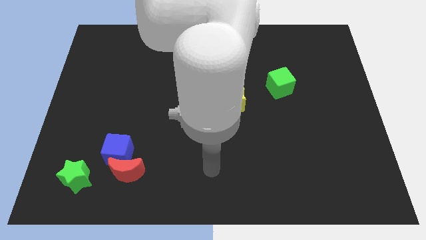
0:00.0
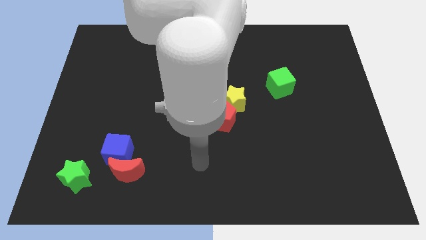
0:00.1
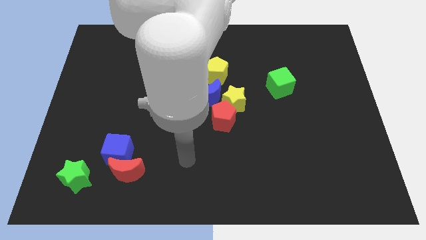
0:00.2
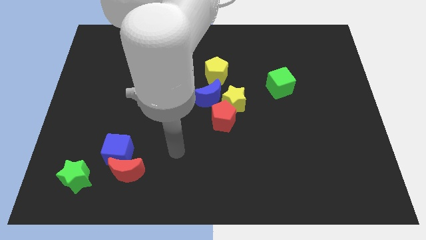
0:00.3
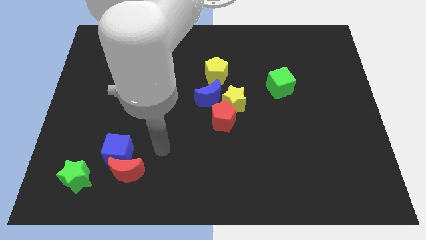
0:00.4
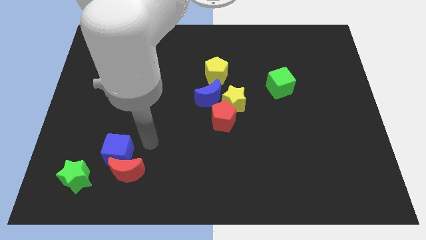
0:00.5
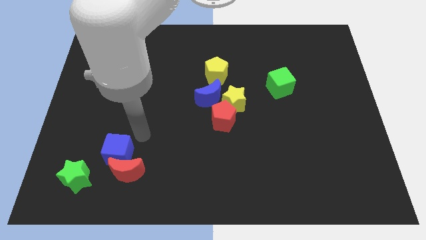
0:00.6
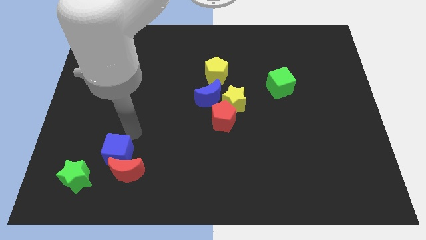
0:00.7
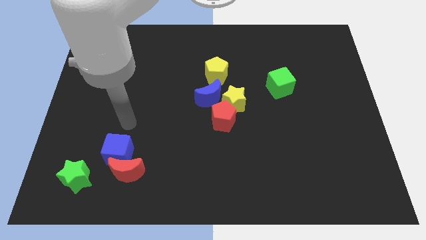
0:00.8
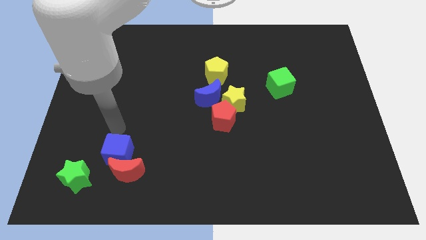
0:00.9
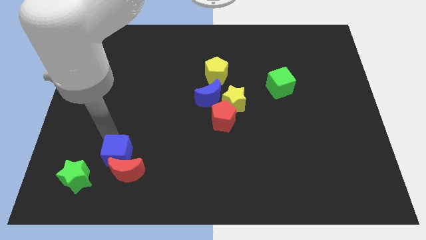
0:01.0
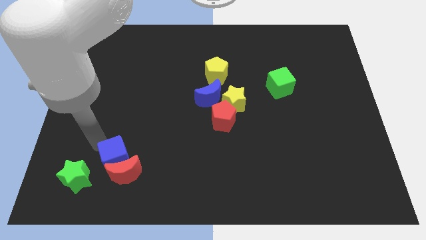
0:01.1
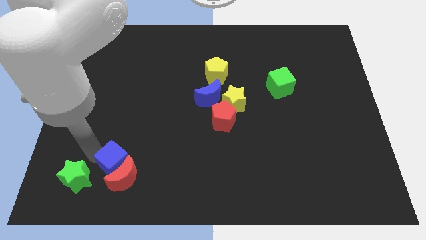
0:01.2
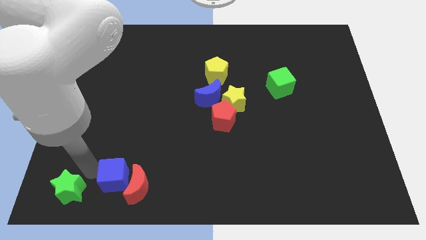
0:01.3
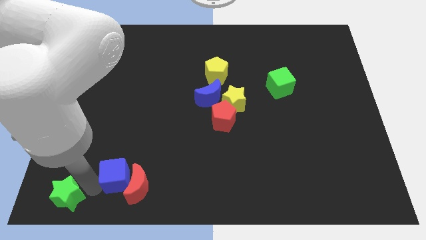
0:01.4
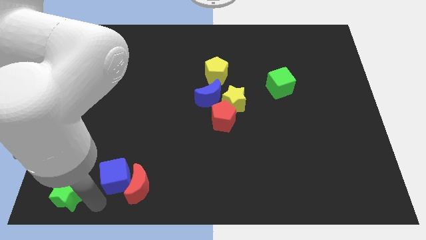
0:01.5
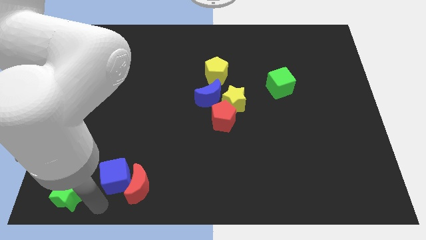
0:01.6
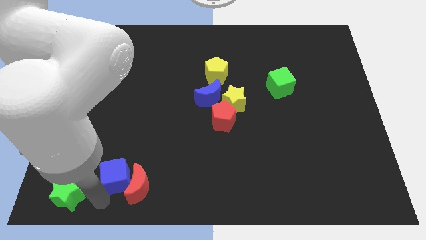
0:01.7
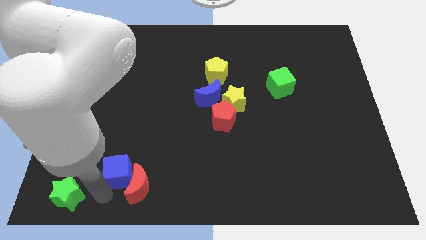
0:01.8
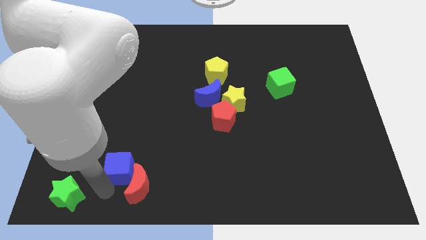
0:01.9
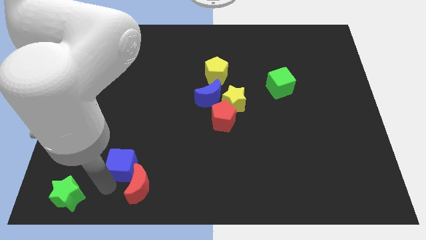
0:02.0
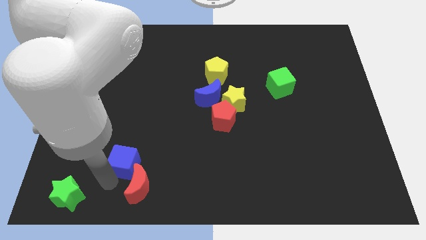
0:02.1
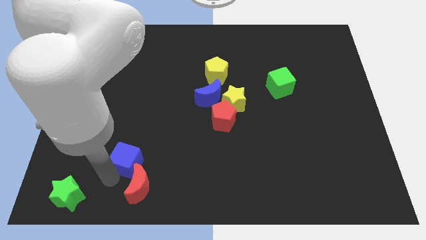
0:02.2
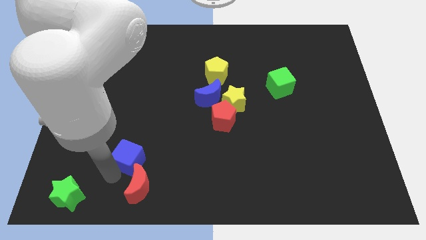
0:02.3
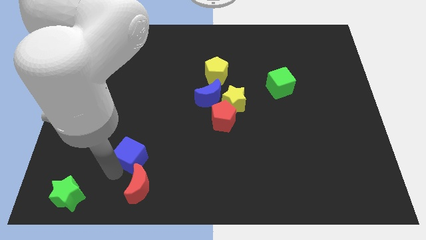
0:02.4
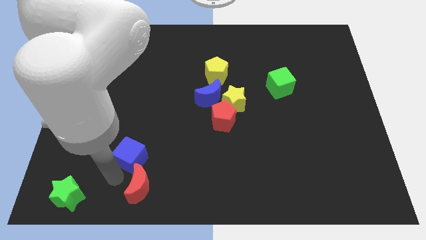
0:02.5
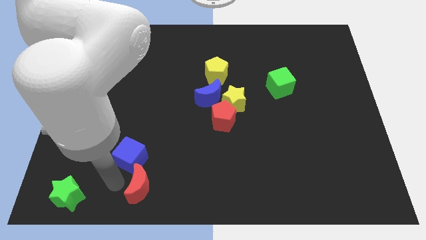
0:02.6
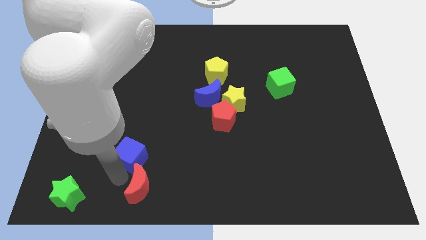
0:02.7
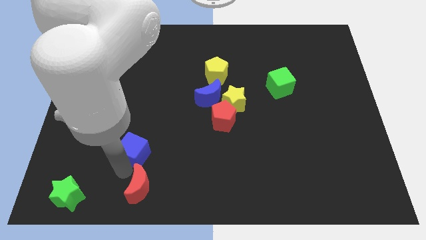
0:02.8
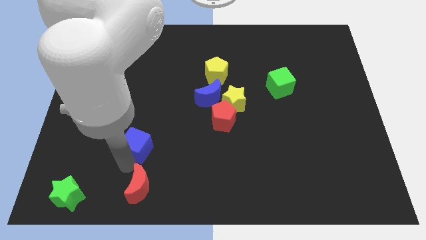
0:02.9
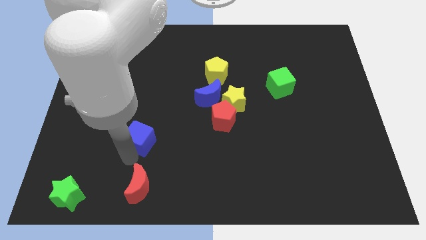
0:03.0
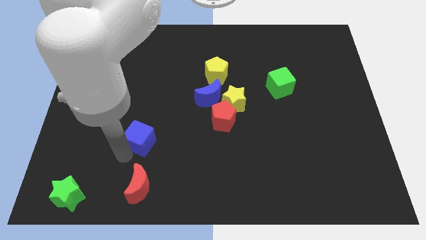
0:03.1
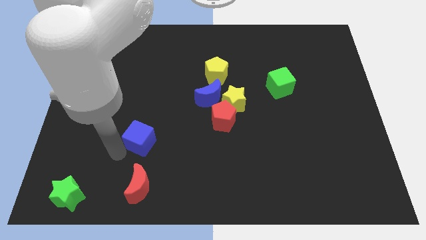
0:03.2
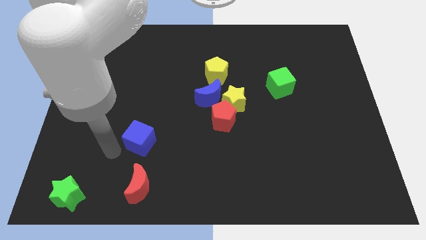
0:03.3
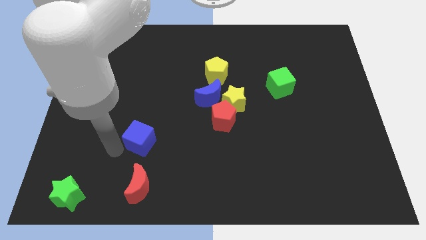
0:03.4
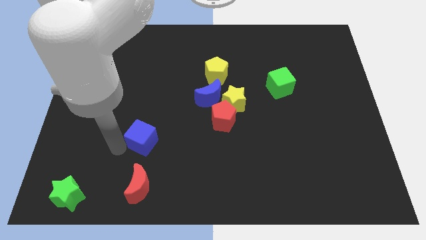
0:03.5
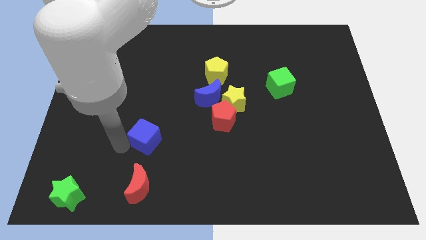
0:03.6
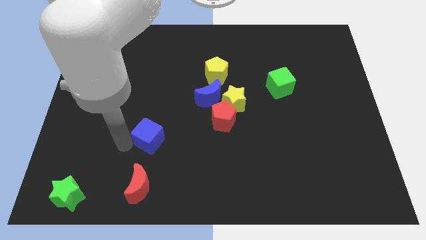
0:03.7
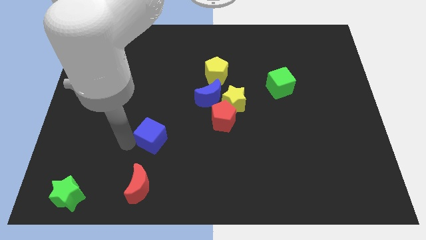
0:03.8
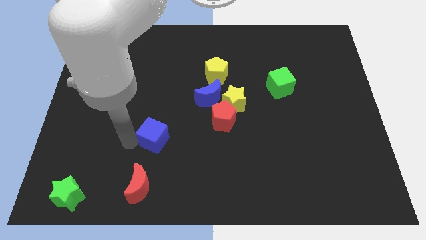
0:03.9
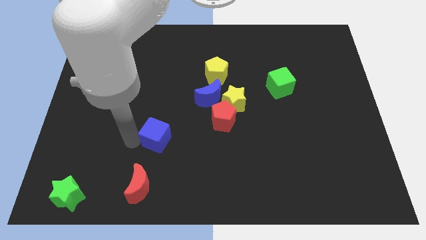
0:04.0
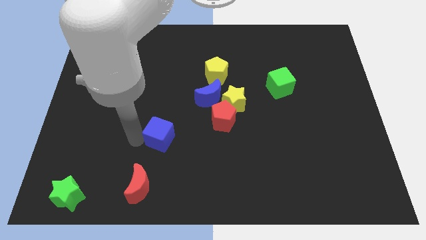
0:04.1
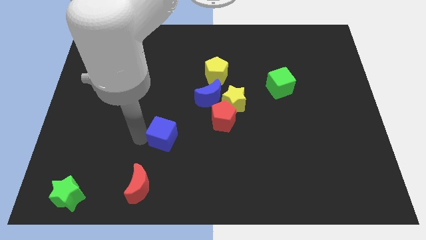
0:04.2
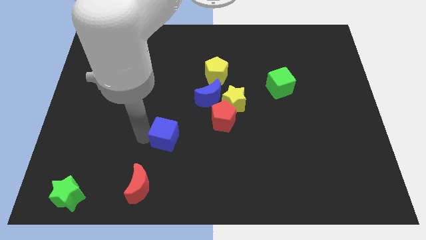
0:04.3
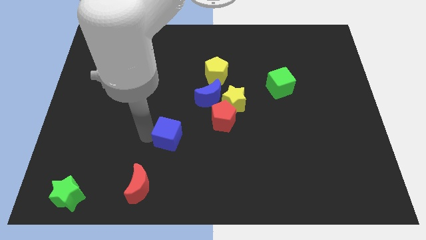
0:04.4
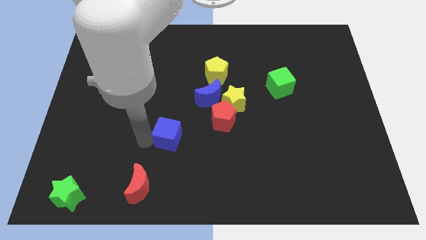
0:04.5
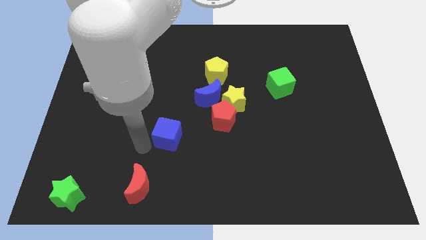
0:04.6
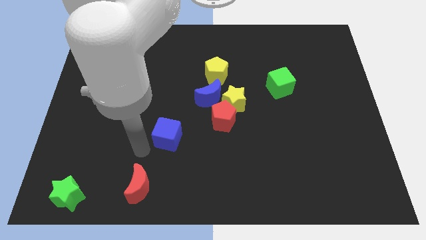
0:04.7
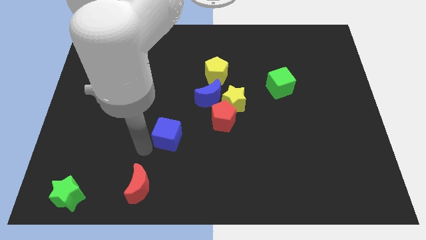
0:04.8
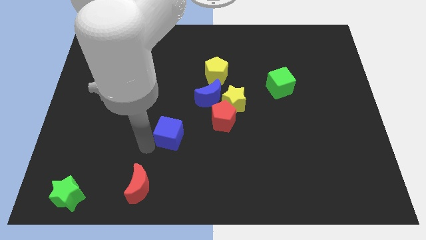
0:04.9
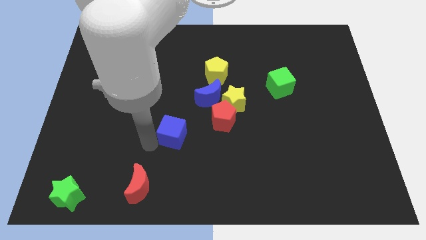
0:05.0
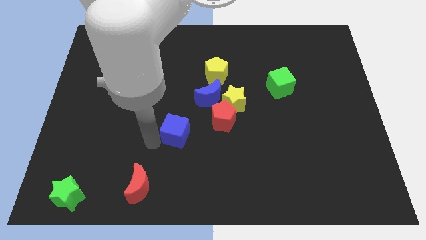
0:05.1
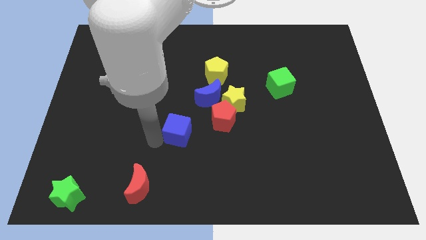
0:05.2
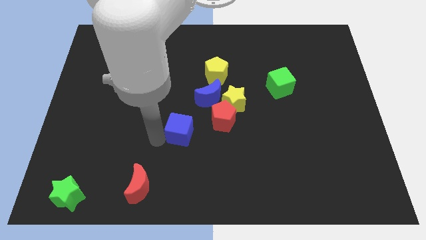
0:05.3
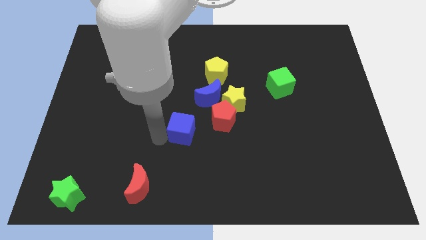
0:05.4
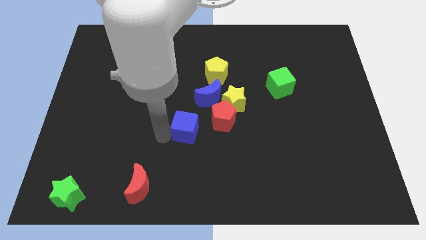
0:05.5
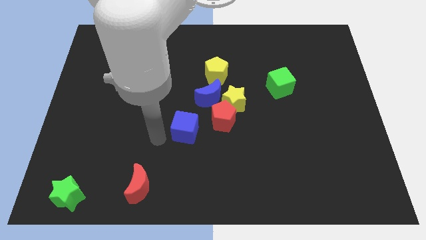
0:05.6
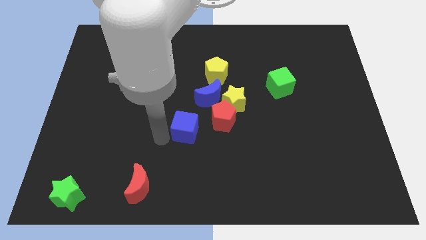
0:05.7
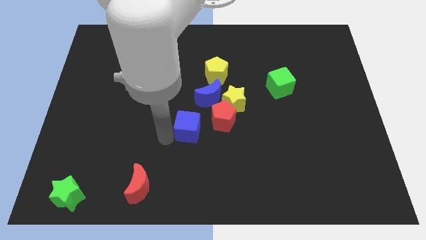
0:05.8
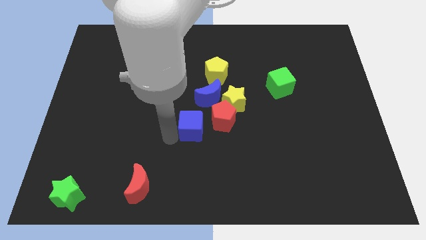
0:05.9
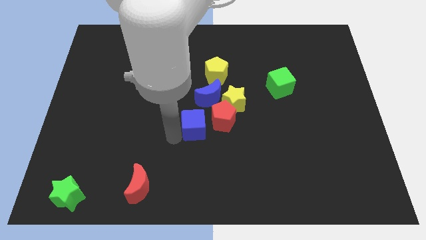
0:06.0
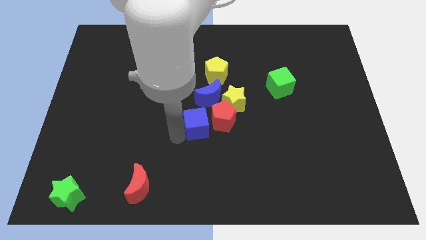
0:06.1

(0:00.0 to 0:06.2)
move the blue cube towards the red pentagon
